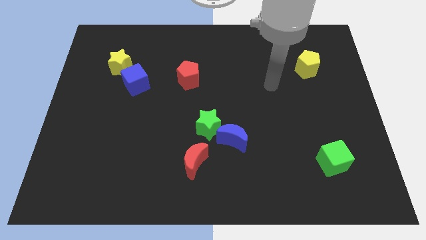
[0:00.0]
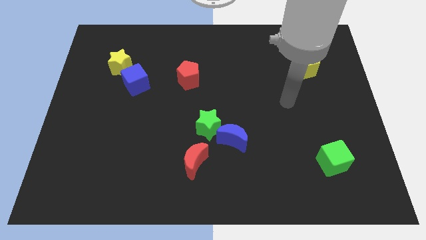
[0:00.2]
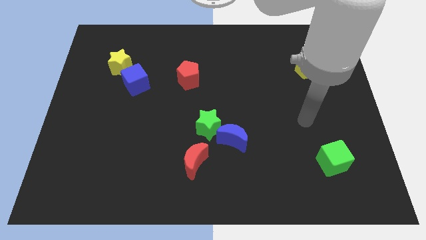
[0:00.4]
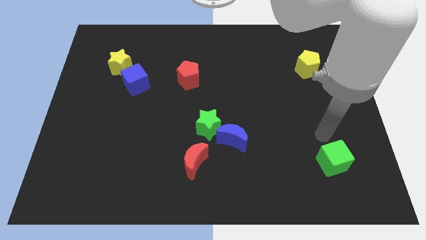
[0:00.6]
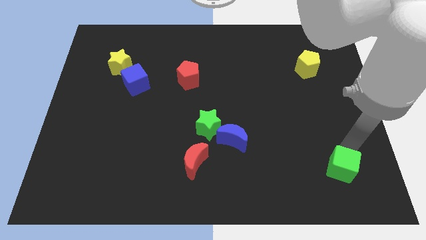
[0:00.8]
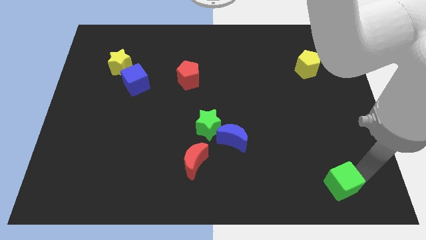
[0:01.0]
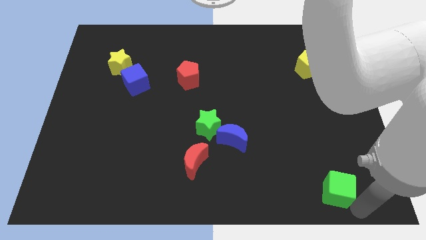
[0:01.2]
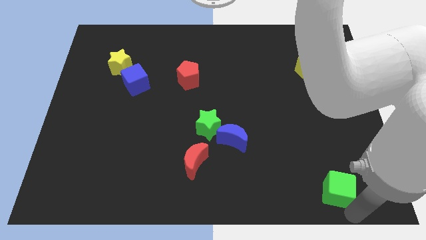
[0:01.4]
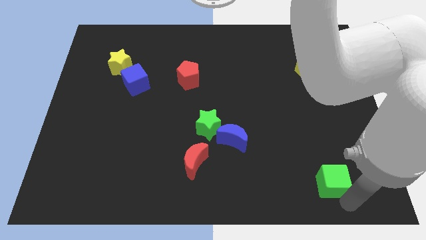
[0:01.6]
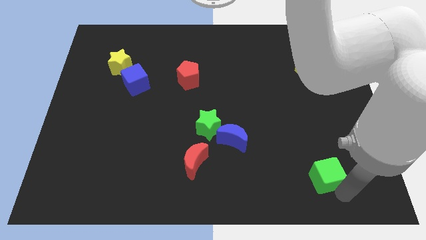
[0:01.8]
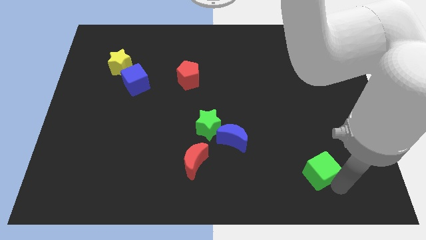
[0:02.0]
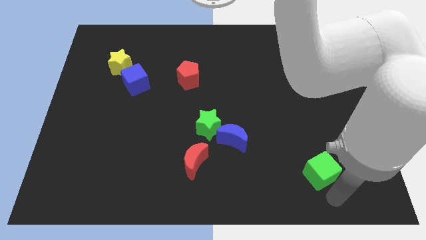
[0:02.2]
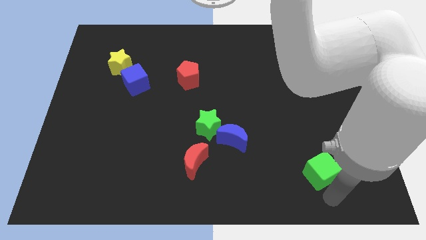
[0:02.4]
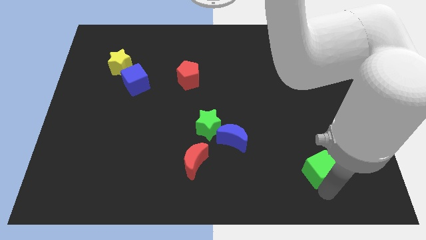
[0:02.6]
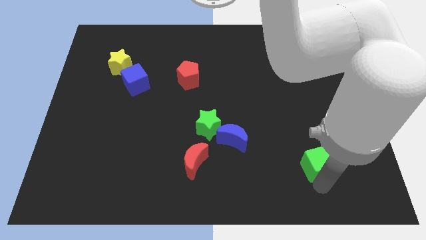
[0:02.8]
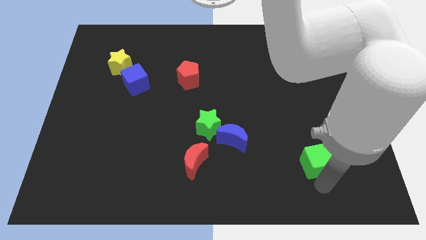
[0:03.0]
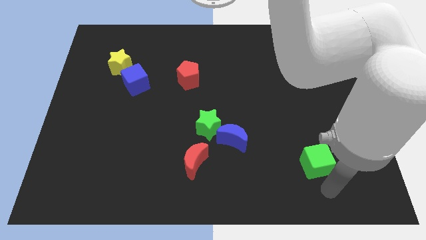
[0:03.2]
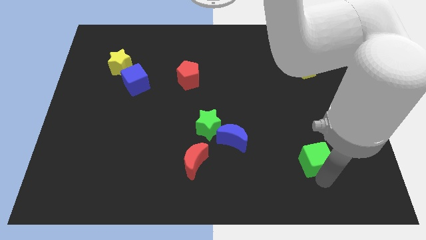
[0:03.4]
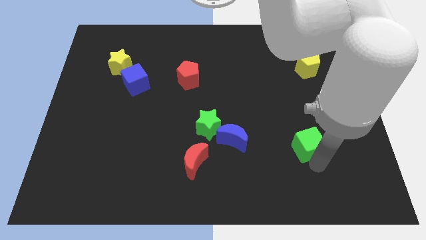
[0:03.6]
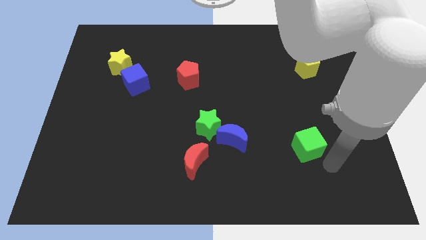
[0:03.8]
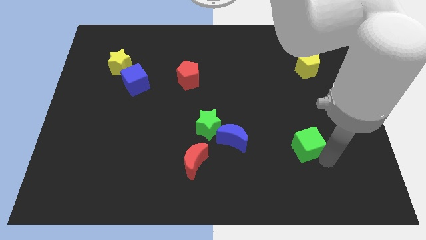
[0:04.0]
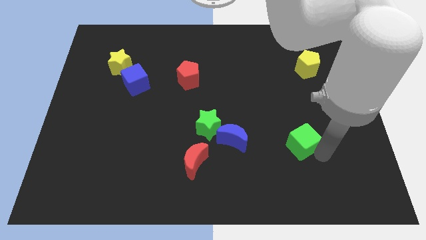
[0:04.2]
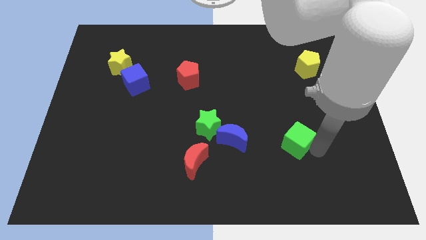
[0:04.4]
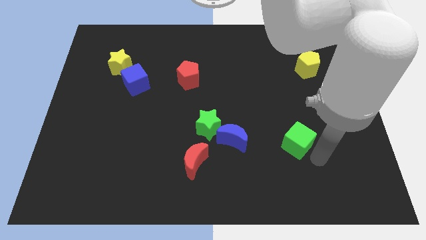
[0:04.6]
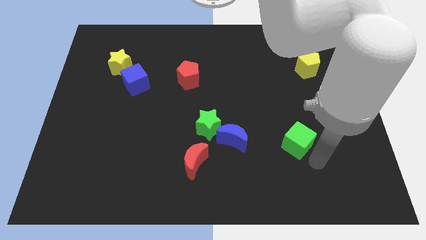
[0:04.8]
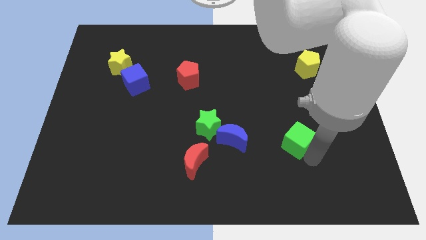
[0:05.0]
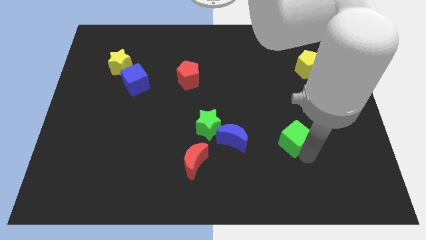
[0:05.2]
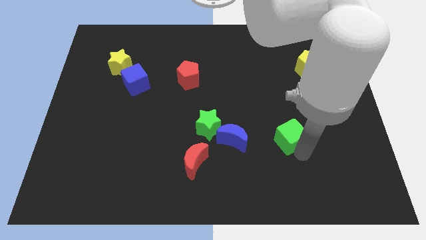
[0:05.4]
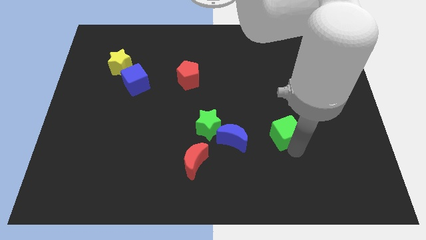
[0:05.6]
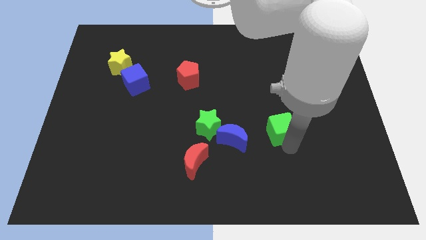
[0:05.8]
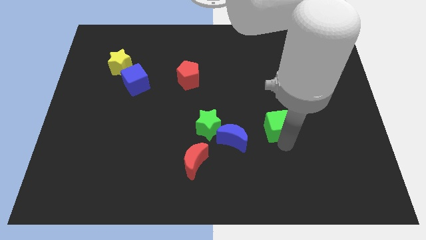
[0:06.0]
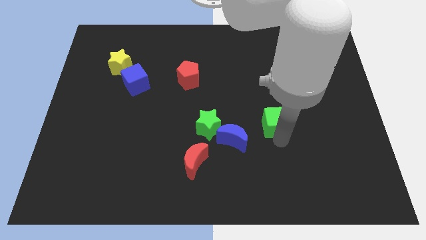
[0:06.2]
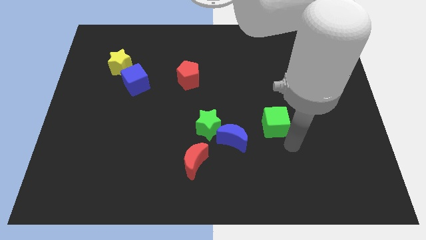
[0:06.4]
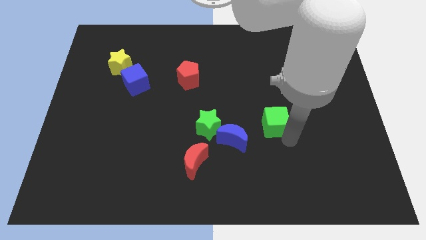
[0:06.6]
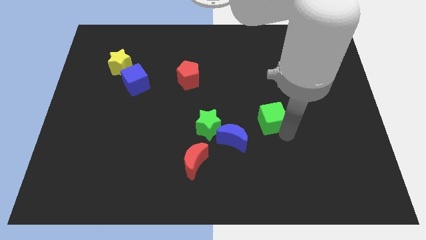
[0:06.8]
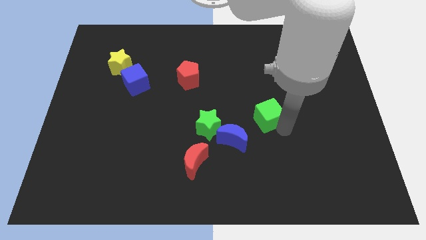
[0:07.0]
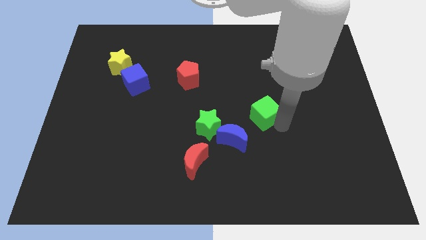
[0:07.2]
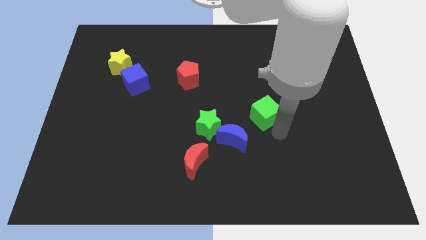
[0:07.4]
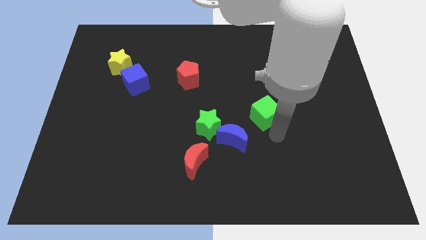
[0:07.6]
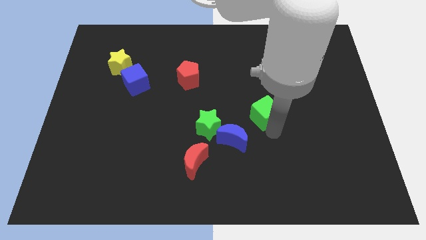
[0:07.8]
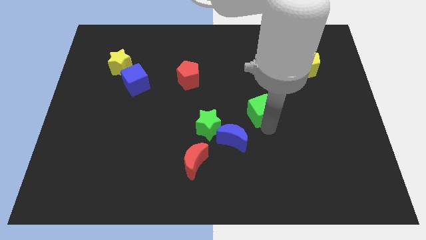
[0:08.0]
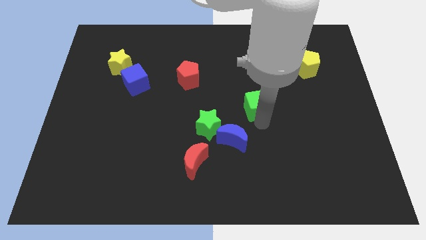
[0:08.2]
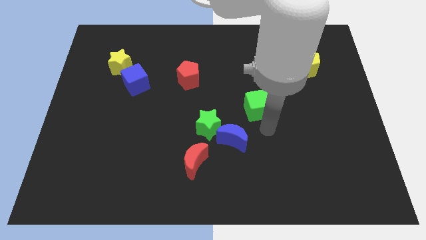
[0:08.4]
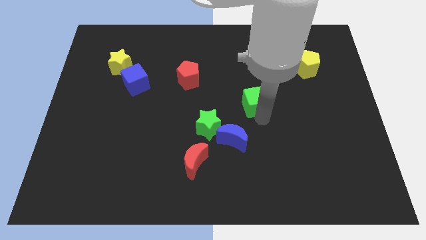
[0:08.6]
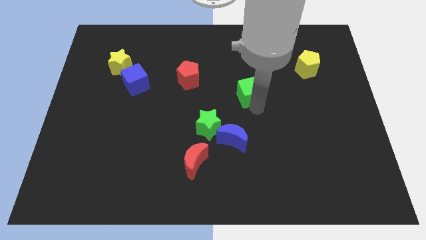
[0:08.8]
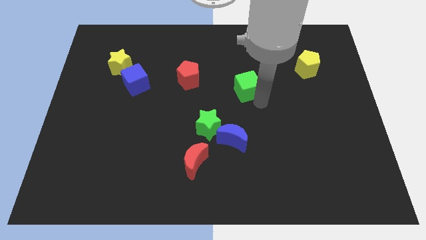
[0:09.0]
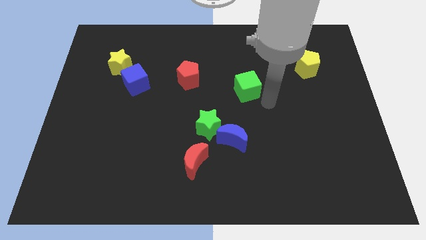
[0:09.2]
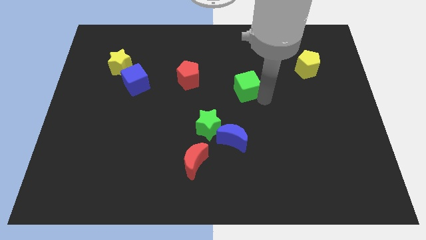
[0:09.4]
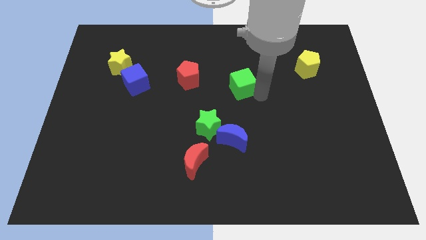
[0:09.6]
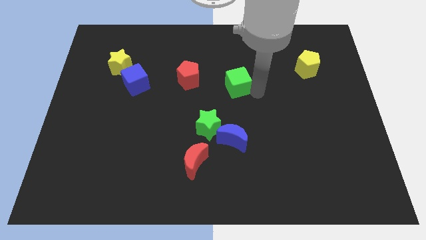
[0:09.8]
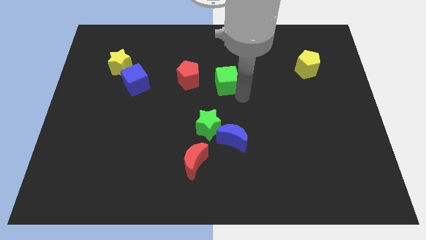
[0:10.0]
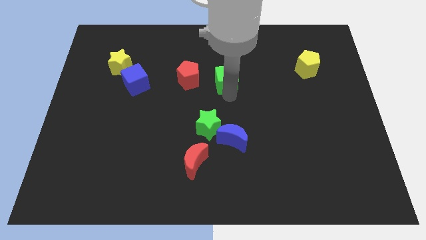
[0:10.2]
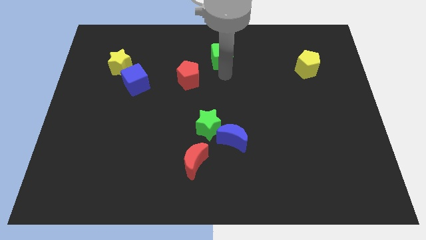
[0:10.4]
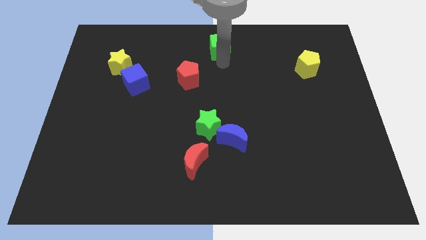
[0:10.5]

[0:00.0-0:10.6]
put the green cube to the top
